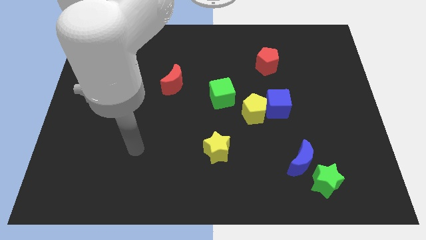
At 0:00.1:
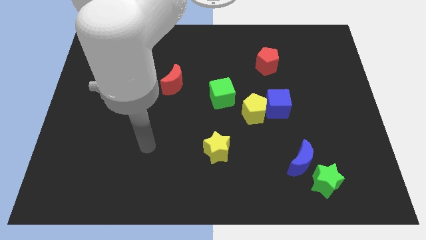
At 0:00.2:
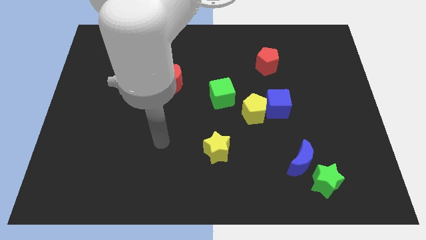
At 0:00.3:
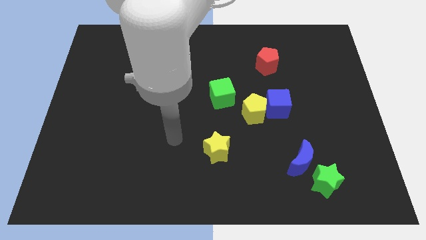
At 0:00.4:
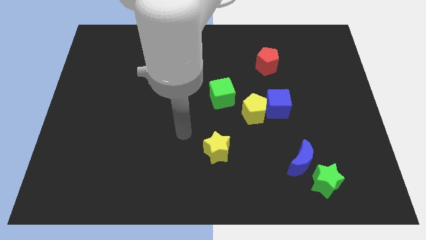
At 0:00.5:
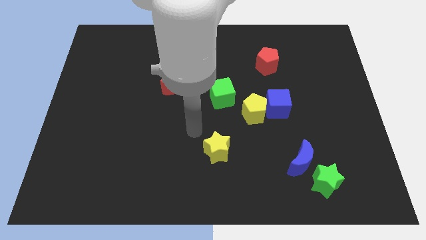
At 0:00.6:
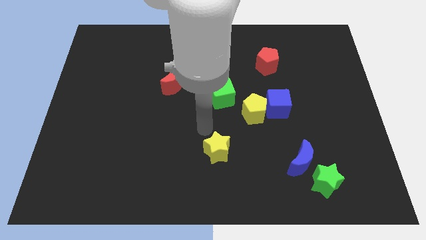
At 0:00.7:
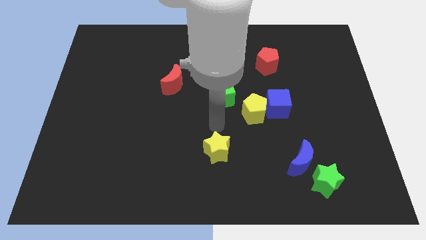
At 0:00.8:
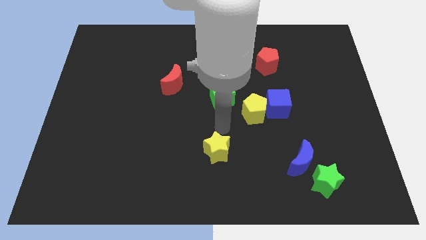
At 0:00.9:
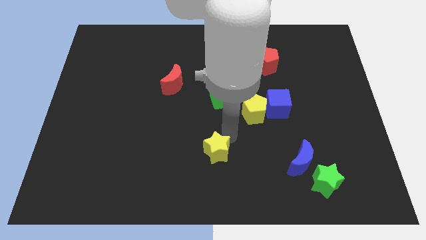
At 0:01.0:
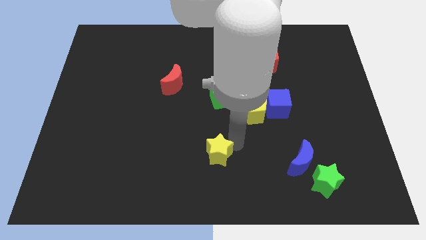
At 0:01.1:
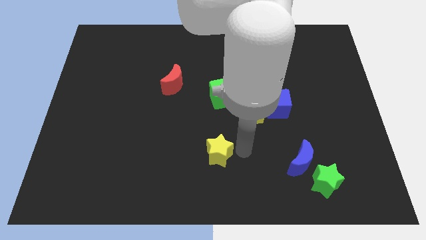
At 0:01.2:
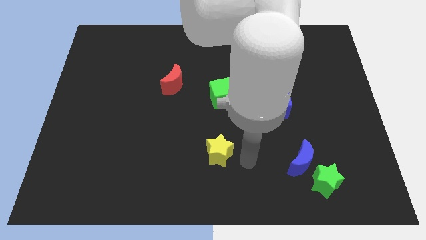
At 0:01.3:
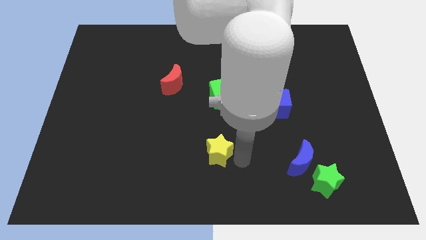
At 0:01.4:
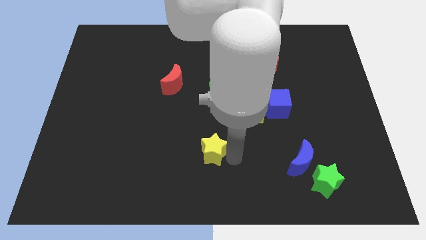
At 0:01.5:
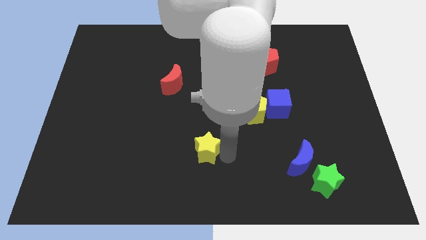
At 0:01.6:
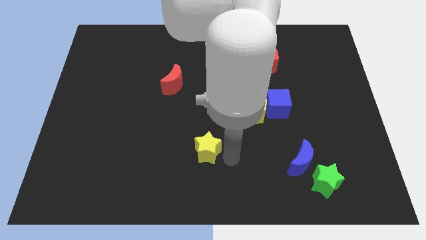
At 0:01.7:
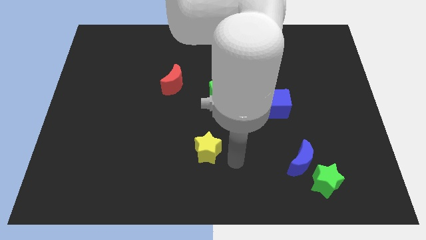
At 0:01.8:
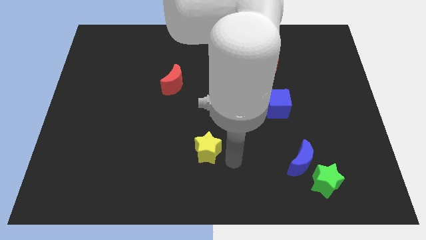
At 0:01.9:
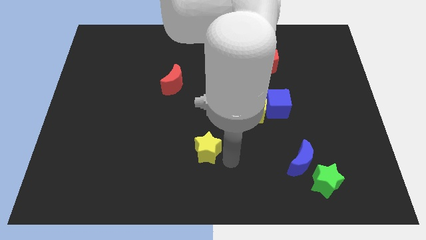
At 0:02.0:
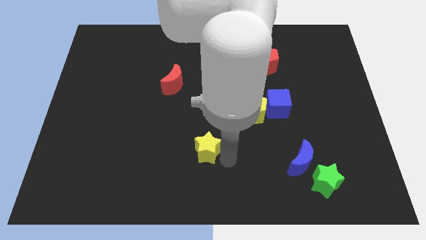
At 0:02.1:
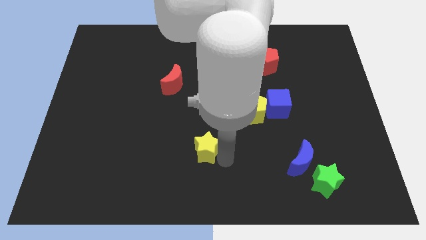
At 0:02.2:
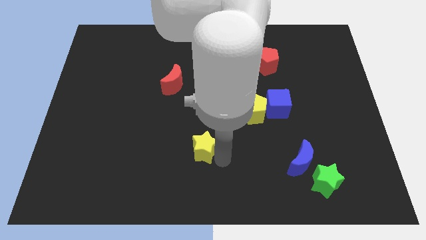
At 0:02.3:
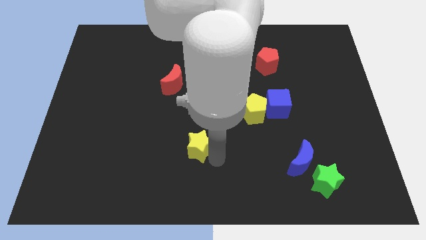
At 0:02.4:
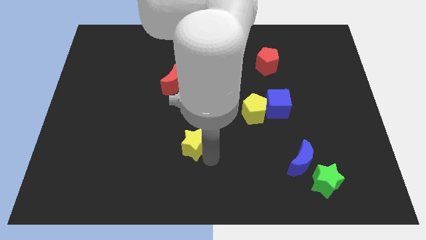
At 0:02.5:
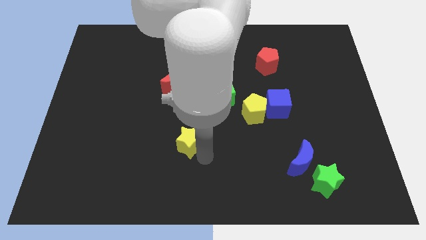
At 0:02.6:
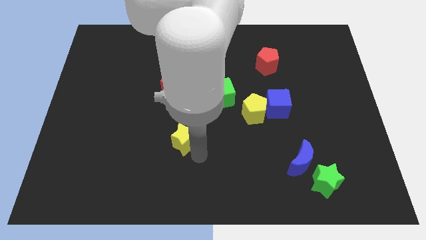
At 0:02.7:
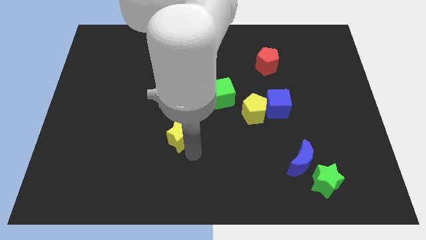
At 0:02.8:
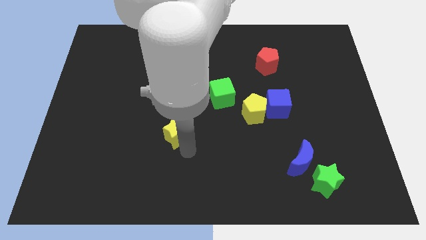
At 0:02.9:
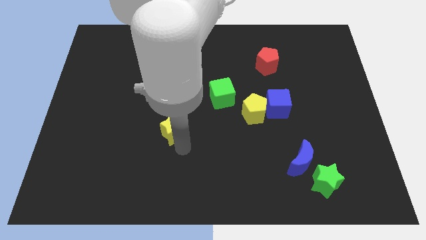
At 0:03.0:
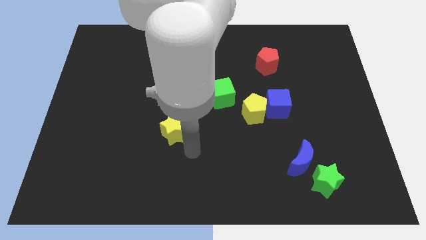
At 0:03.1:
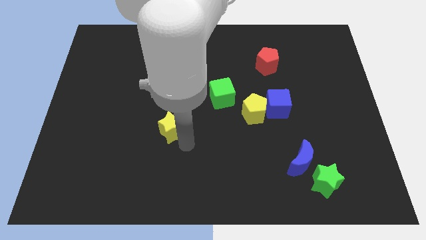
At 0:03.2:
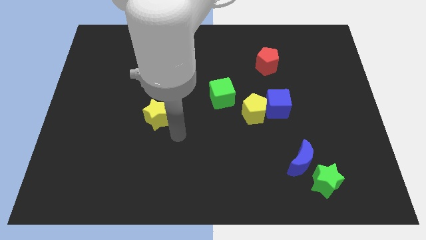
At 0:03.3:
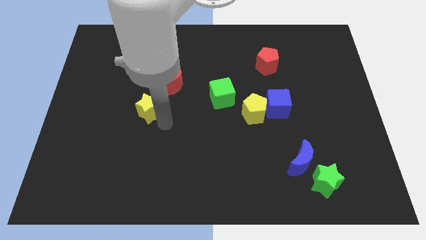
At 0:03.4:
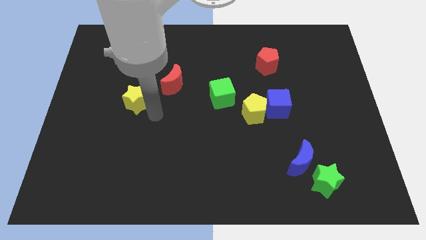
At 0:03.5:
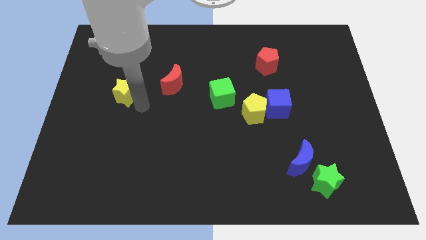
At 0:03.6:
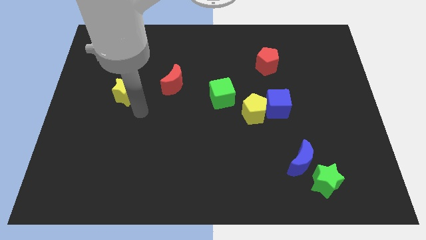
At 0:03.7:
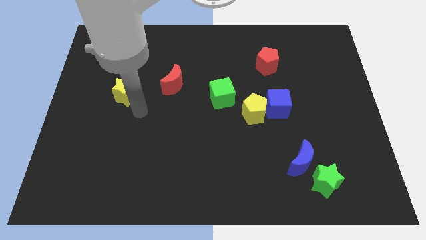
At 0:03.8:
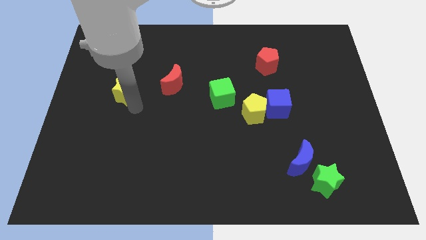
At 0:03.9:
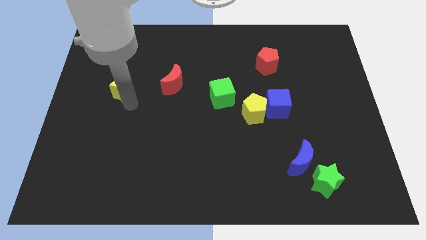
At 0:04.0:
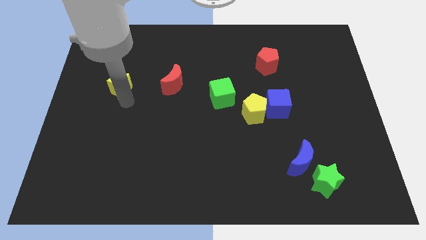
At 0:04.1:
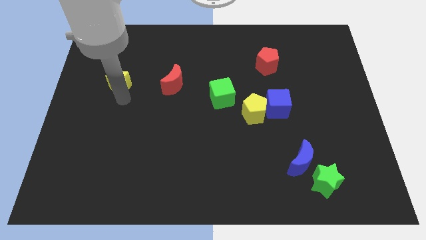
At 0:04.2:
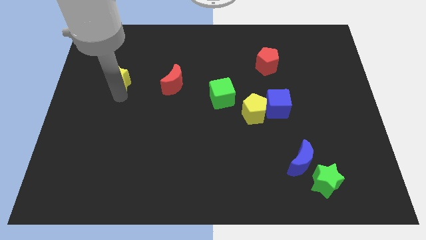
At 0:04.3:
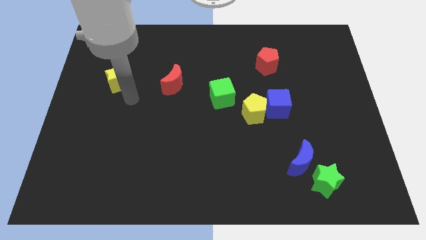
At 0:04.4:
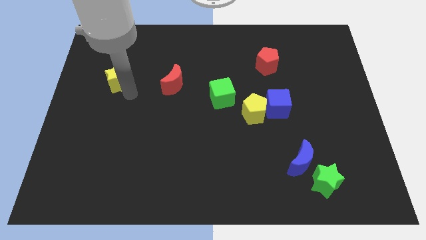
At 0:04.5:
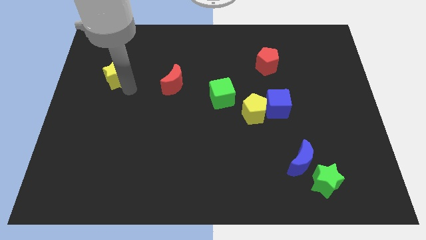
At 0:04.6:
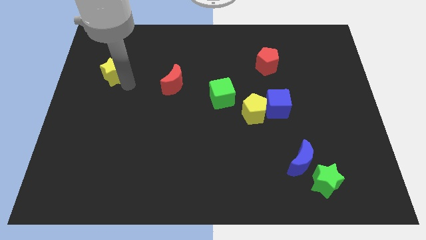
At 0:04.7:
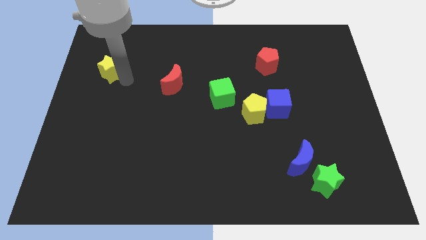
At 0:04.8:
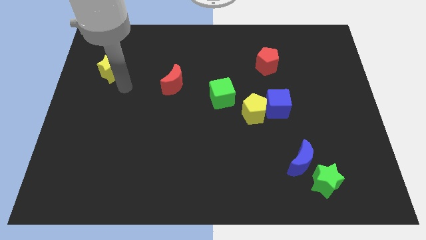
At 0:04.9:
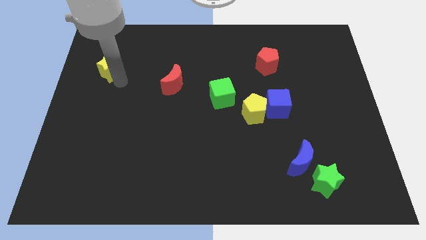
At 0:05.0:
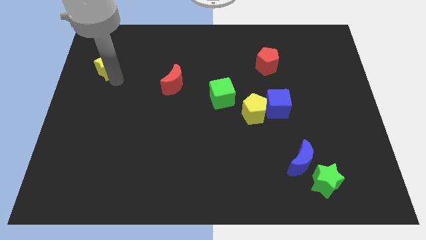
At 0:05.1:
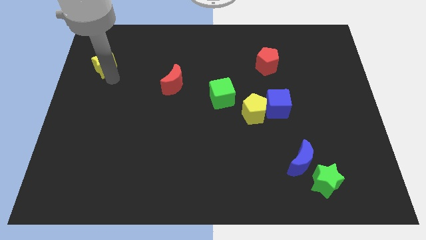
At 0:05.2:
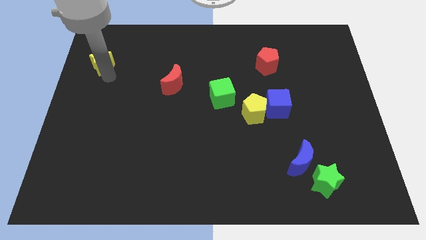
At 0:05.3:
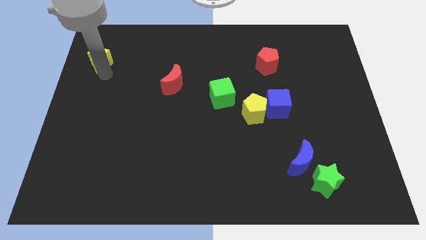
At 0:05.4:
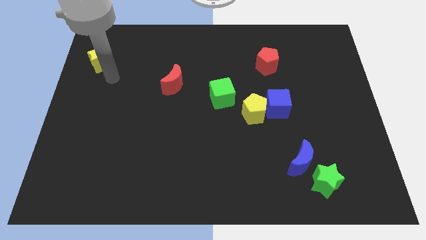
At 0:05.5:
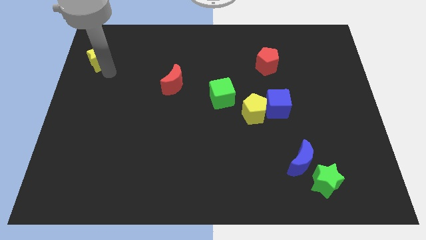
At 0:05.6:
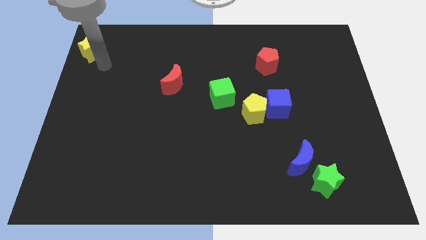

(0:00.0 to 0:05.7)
push the yellow star to the top left corner
